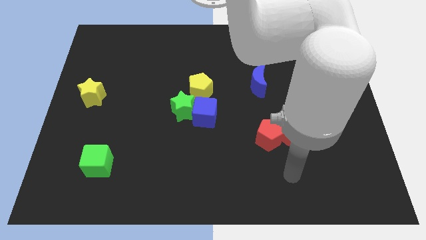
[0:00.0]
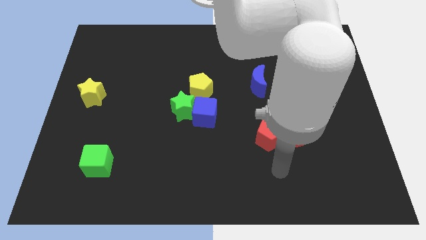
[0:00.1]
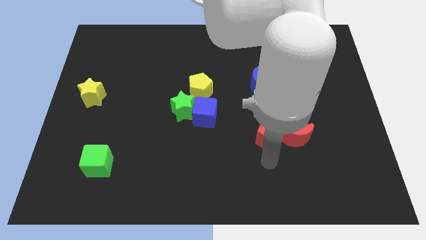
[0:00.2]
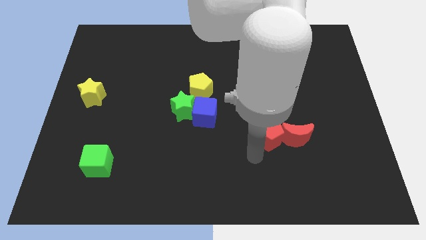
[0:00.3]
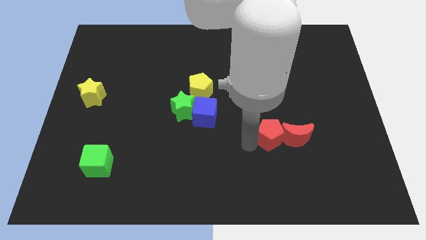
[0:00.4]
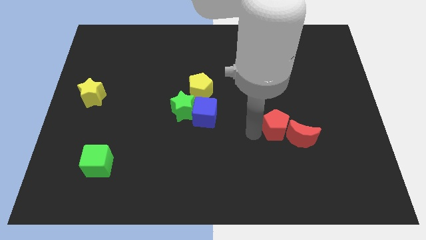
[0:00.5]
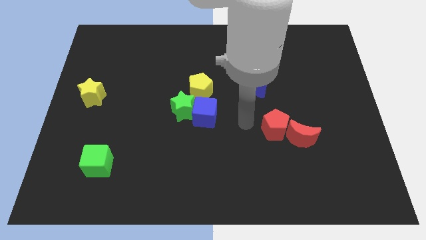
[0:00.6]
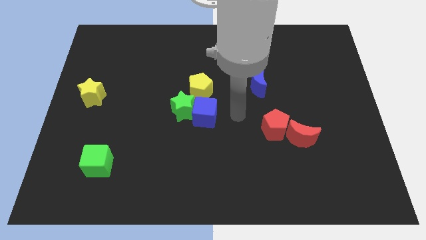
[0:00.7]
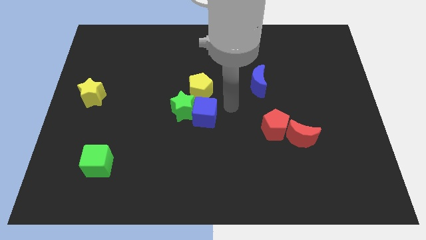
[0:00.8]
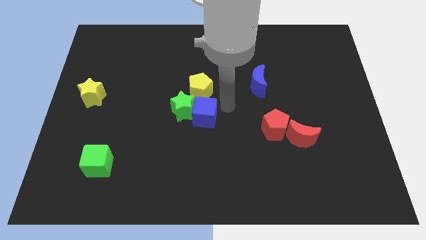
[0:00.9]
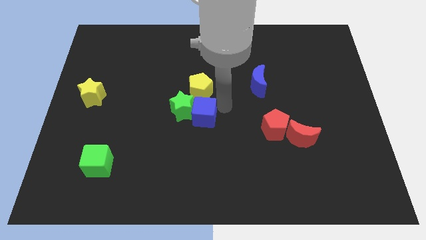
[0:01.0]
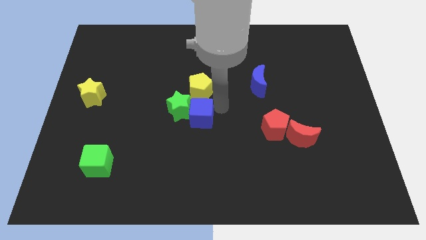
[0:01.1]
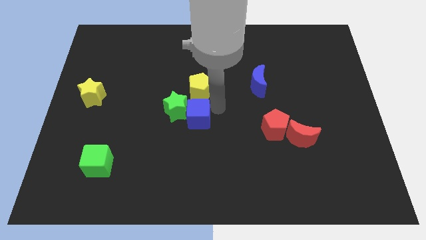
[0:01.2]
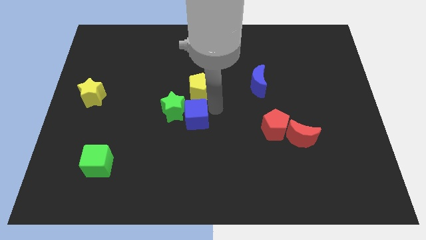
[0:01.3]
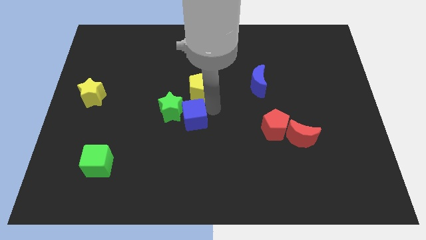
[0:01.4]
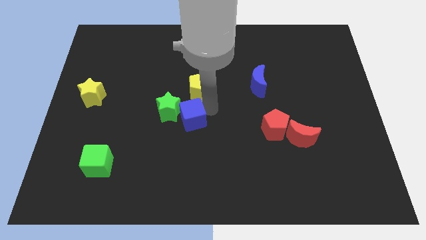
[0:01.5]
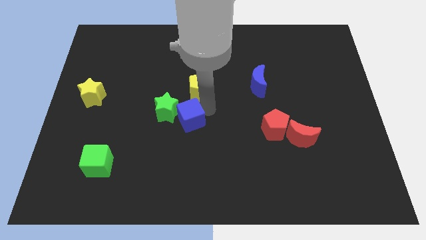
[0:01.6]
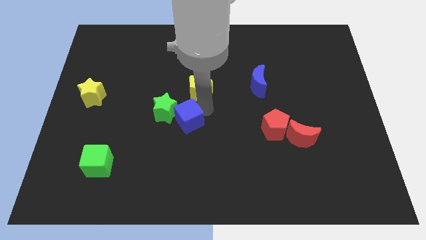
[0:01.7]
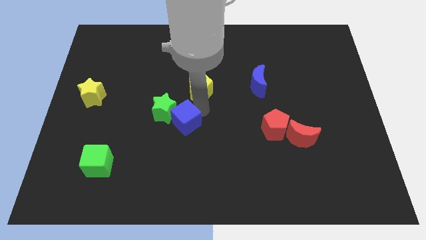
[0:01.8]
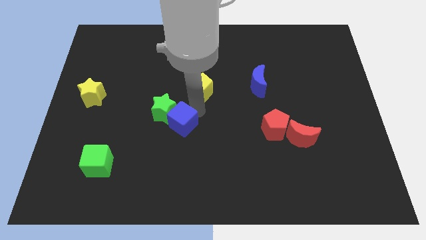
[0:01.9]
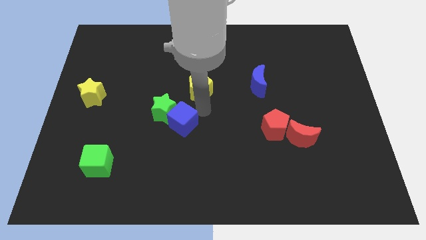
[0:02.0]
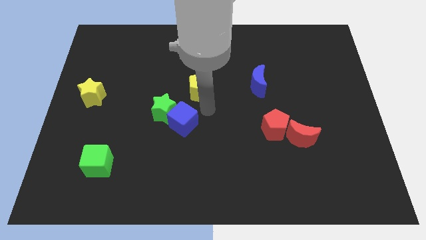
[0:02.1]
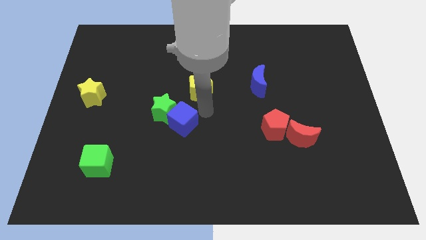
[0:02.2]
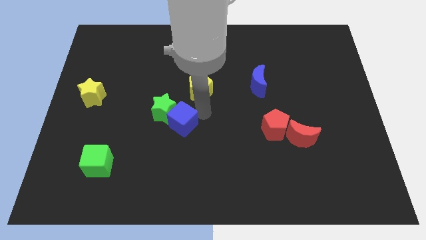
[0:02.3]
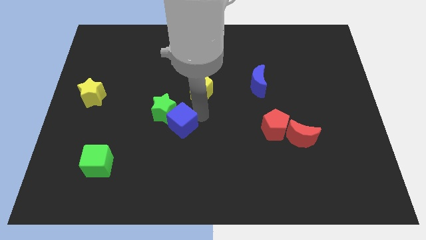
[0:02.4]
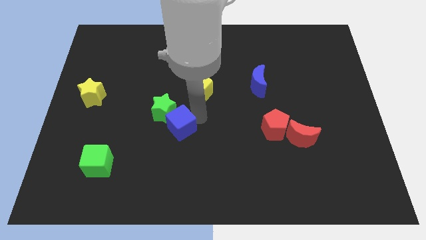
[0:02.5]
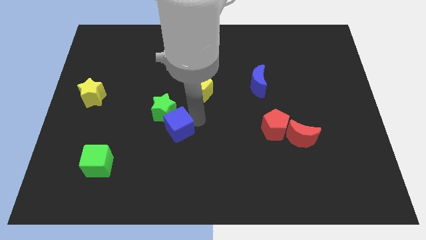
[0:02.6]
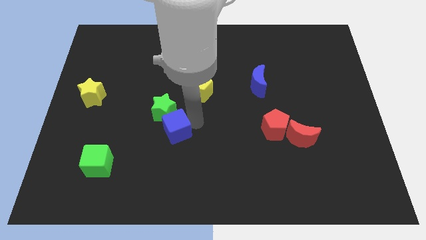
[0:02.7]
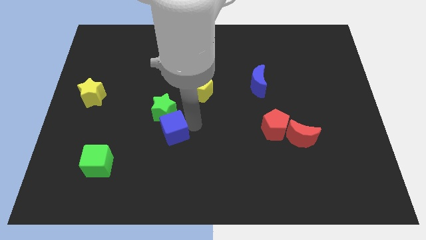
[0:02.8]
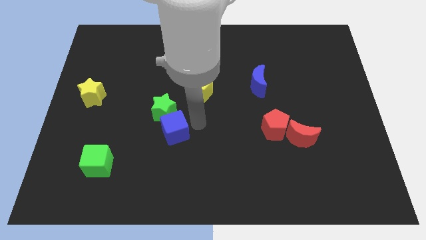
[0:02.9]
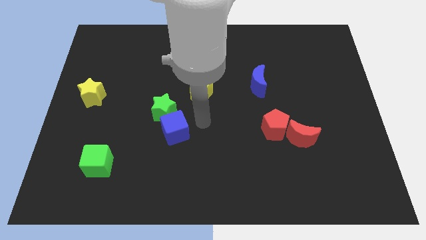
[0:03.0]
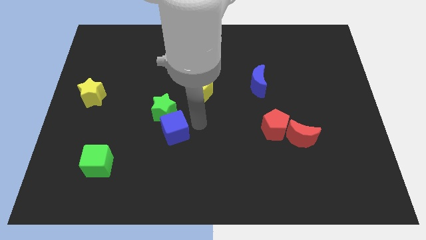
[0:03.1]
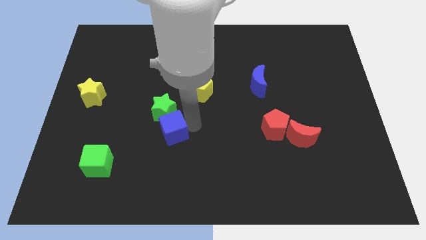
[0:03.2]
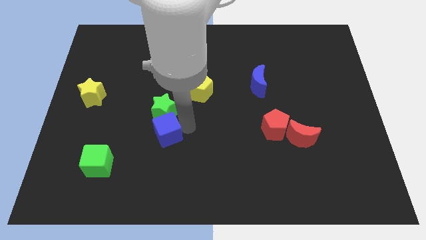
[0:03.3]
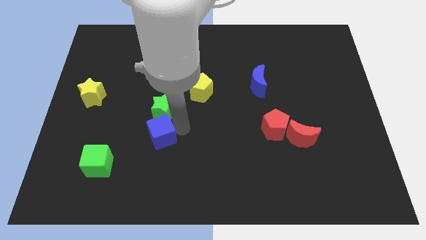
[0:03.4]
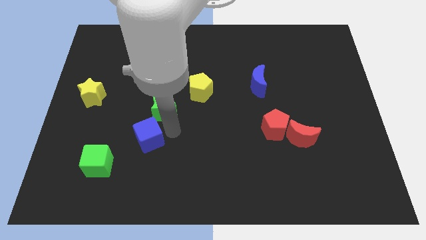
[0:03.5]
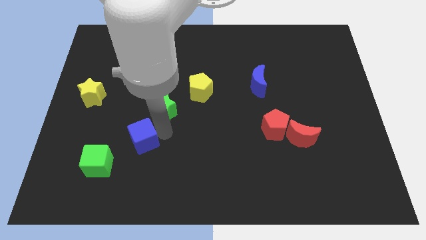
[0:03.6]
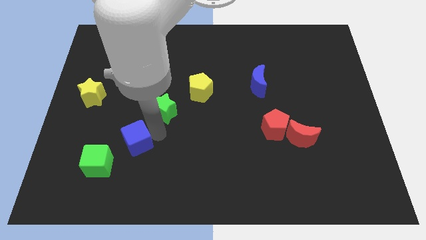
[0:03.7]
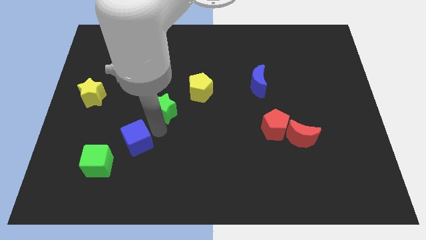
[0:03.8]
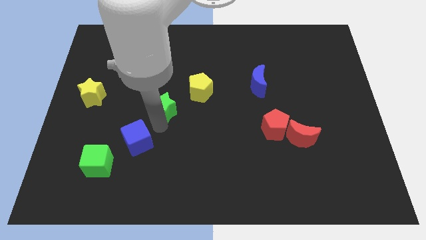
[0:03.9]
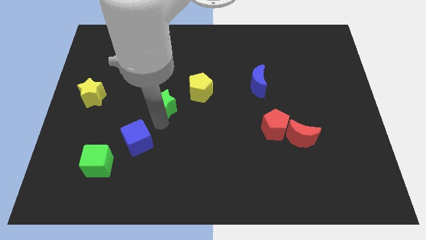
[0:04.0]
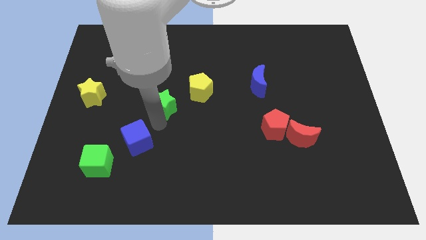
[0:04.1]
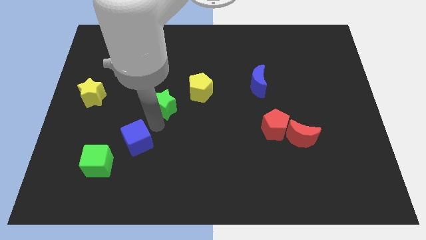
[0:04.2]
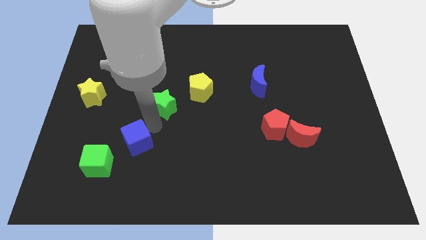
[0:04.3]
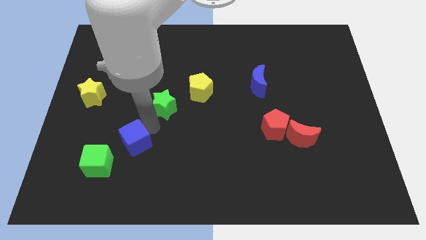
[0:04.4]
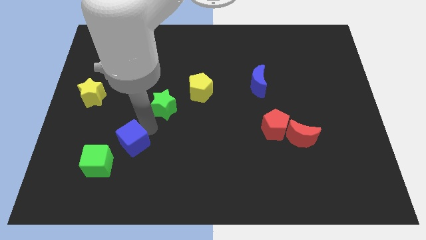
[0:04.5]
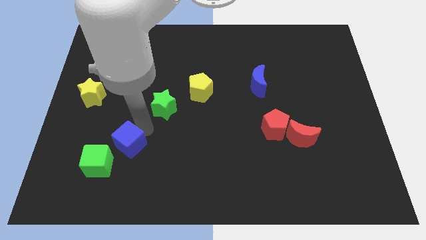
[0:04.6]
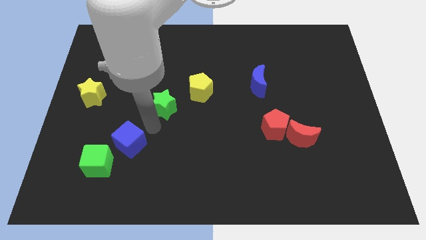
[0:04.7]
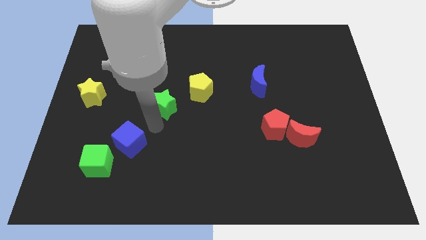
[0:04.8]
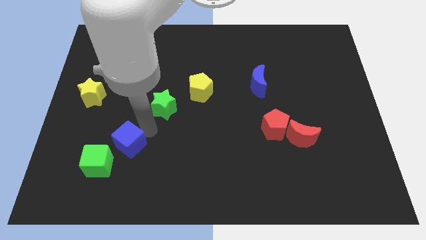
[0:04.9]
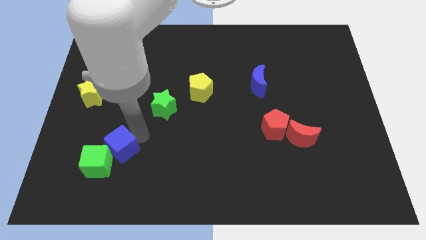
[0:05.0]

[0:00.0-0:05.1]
move the blue cube next to the green cube

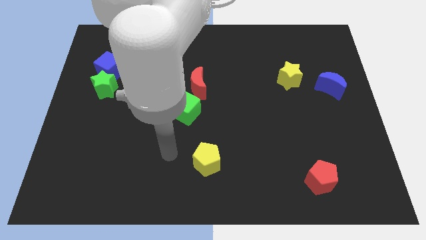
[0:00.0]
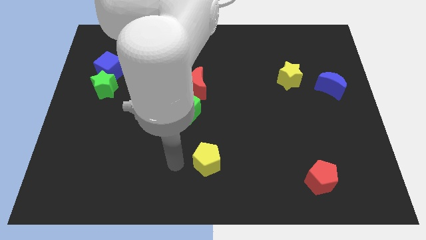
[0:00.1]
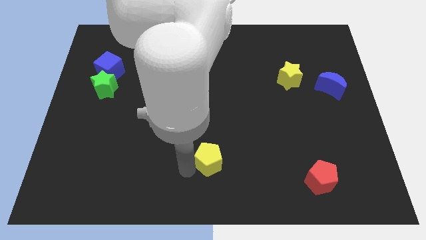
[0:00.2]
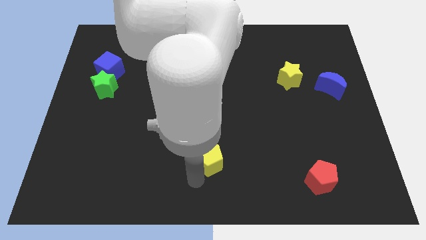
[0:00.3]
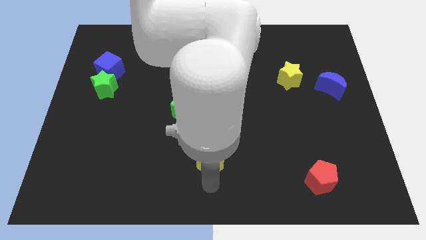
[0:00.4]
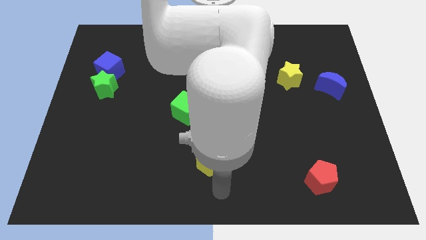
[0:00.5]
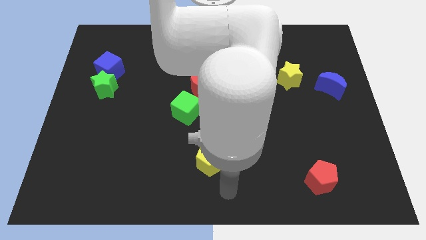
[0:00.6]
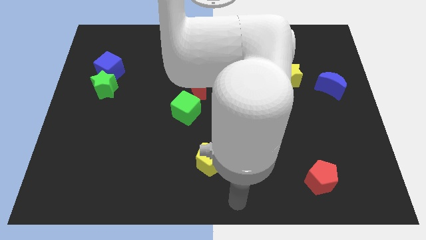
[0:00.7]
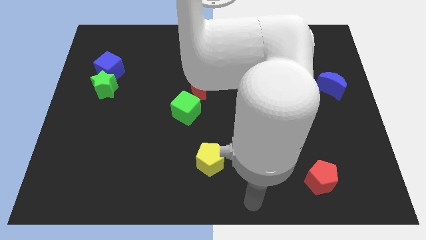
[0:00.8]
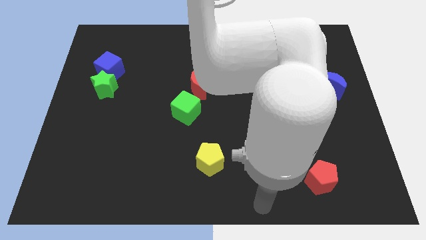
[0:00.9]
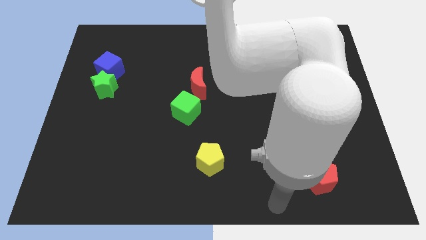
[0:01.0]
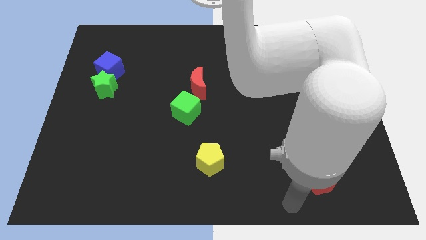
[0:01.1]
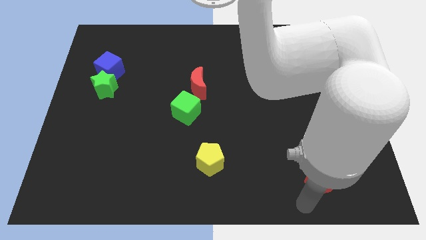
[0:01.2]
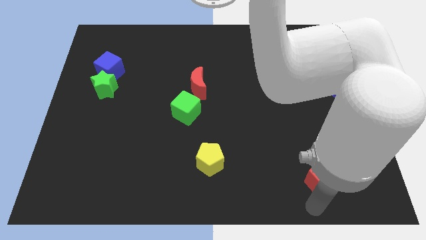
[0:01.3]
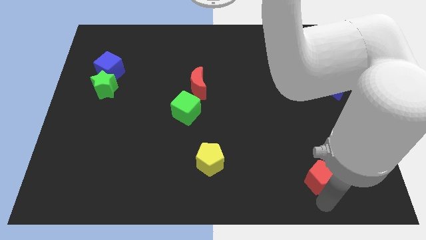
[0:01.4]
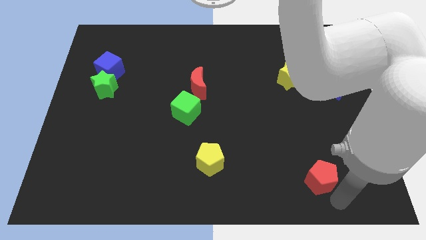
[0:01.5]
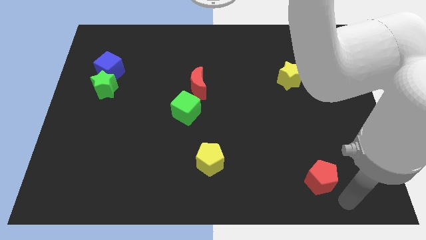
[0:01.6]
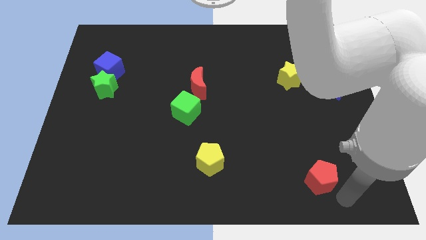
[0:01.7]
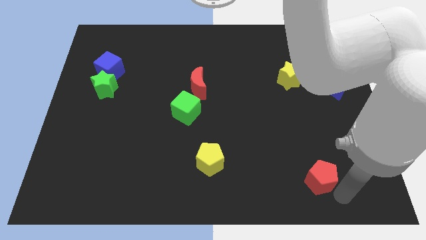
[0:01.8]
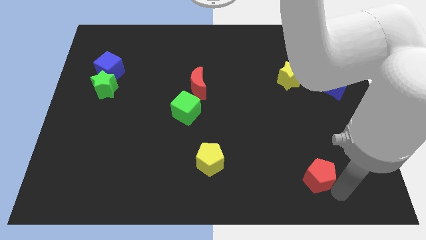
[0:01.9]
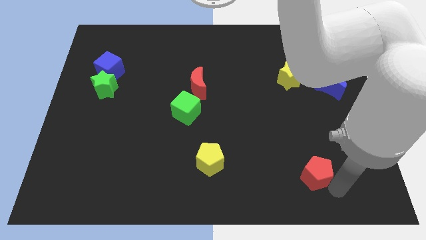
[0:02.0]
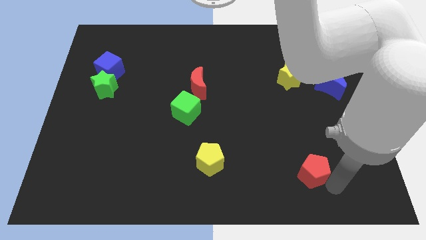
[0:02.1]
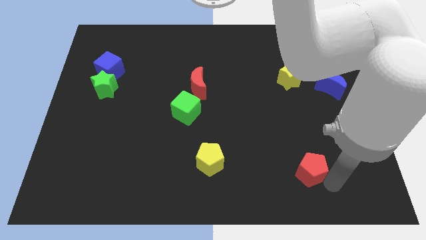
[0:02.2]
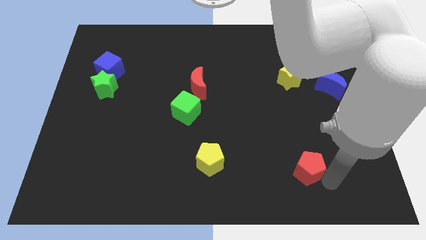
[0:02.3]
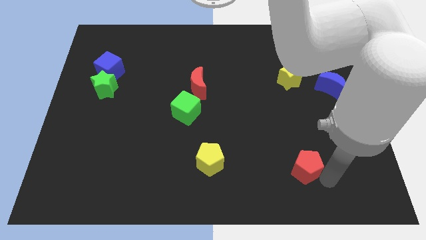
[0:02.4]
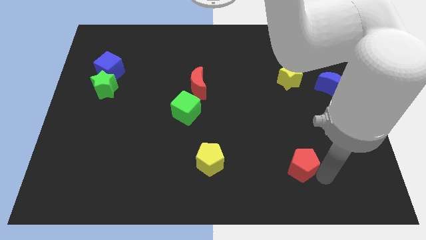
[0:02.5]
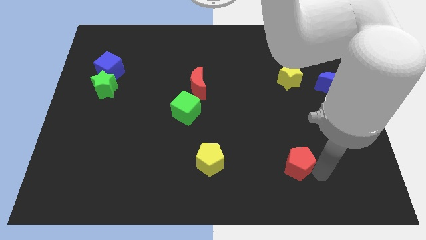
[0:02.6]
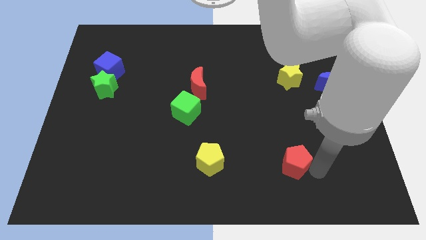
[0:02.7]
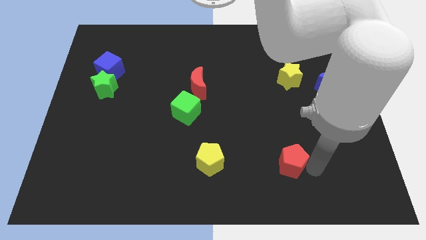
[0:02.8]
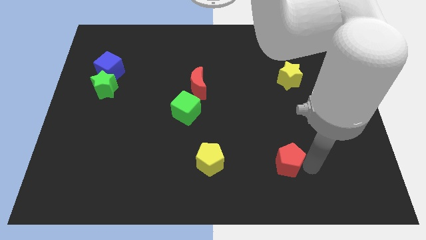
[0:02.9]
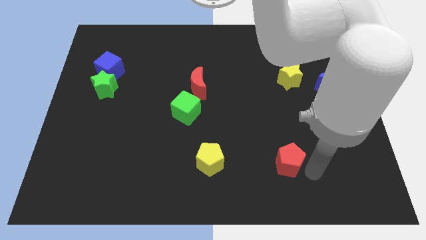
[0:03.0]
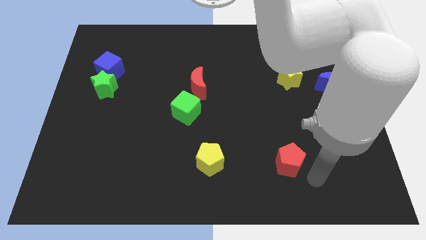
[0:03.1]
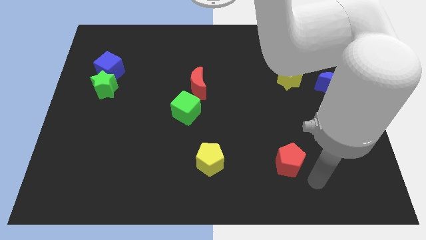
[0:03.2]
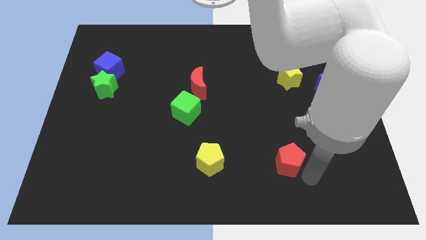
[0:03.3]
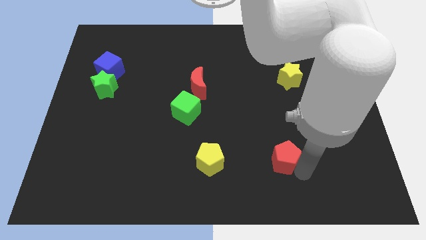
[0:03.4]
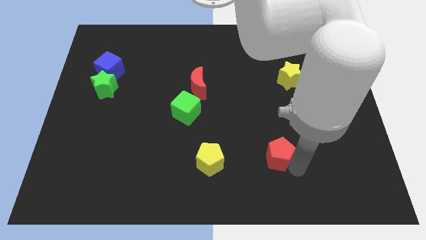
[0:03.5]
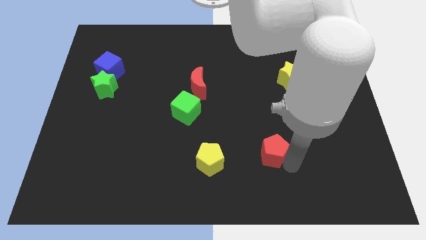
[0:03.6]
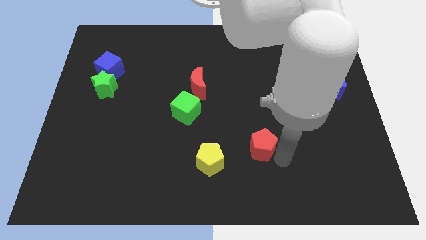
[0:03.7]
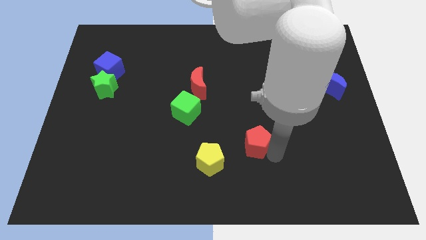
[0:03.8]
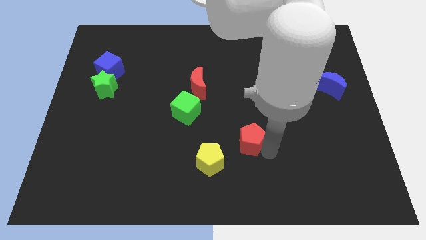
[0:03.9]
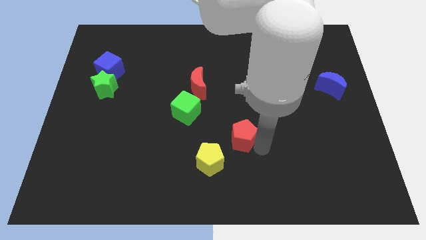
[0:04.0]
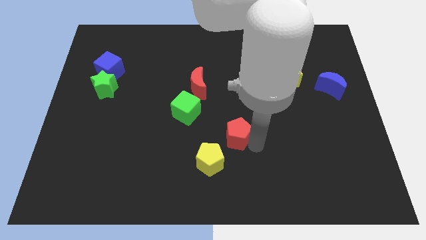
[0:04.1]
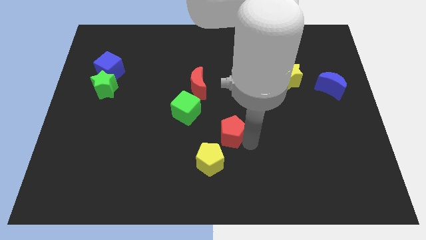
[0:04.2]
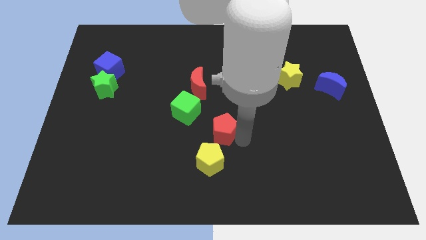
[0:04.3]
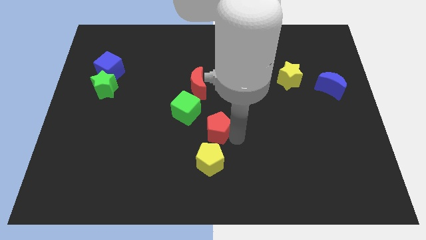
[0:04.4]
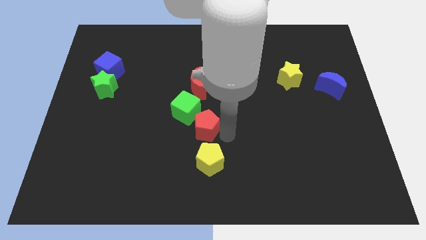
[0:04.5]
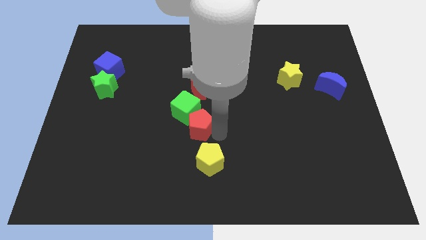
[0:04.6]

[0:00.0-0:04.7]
move the red pentagon to the green cube
